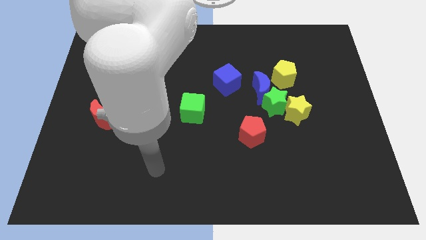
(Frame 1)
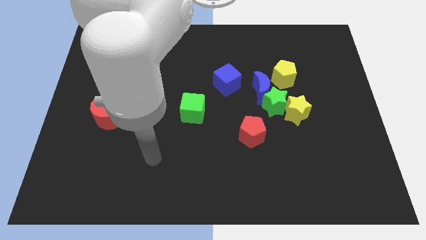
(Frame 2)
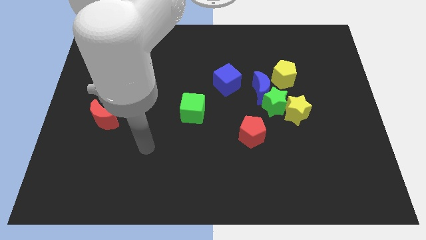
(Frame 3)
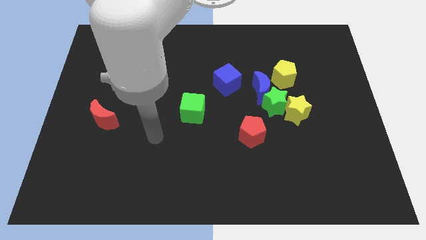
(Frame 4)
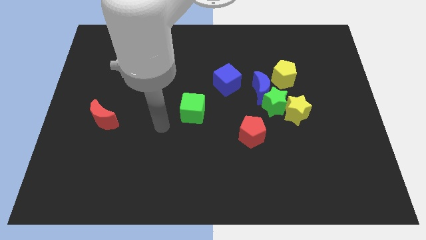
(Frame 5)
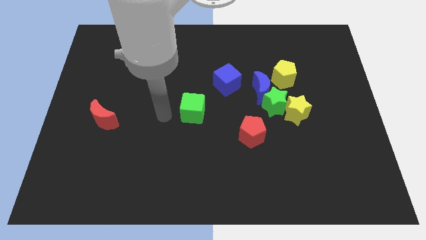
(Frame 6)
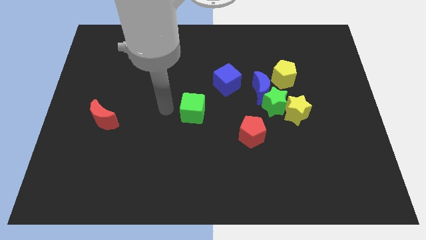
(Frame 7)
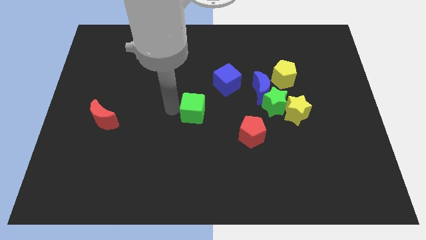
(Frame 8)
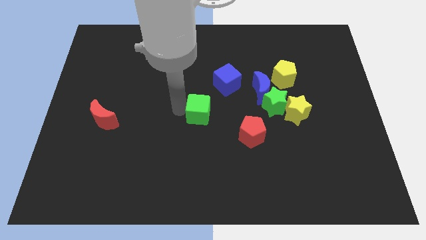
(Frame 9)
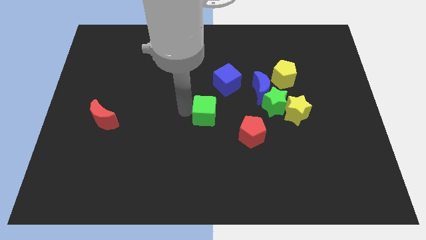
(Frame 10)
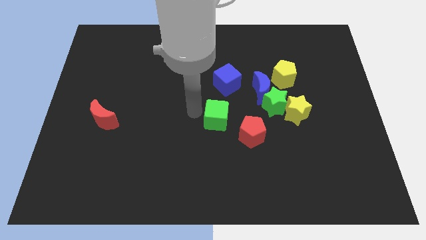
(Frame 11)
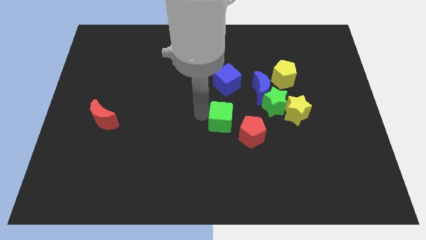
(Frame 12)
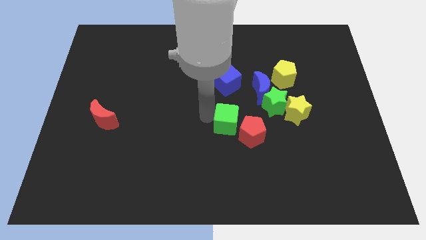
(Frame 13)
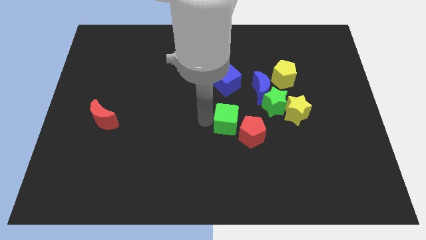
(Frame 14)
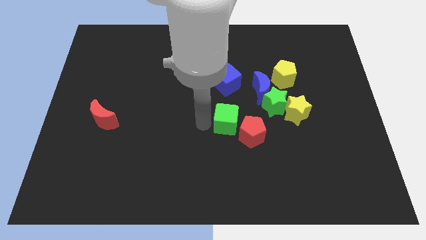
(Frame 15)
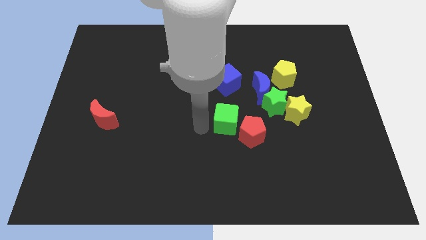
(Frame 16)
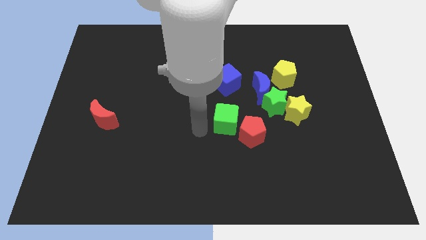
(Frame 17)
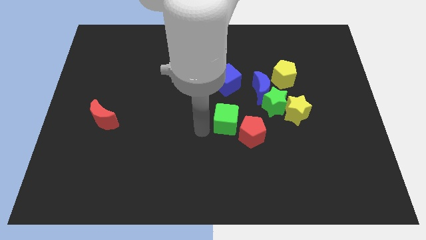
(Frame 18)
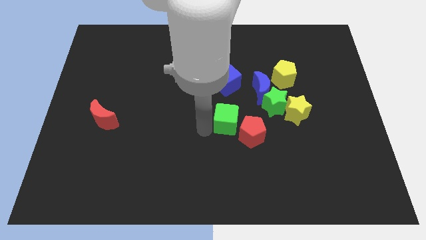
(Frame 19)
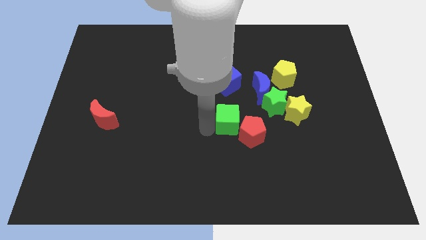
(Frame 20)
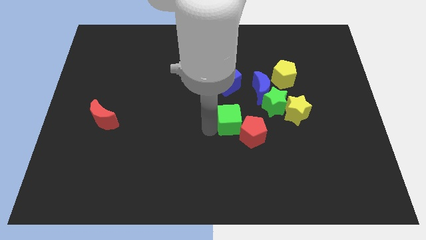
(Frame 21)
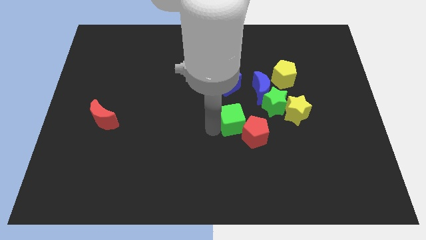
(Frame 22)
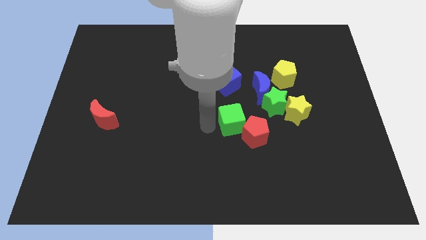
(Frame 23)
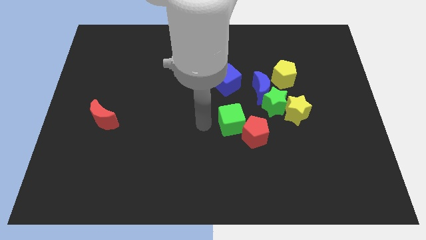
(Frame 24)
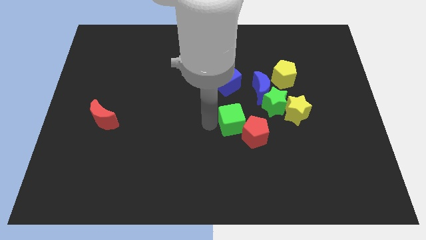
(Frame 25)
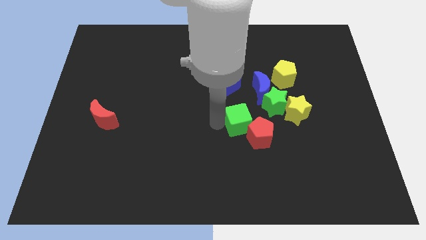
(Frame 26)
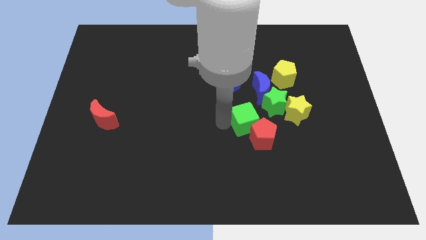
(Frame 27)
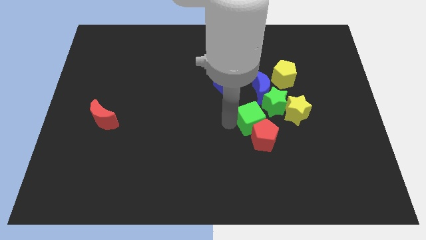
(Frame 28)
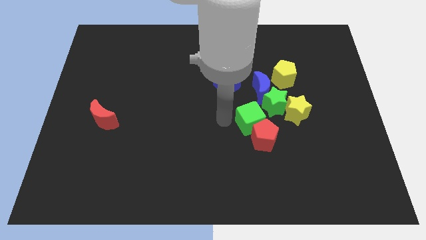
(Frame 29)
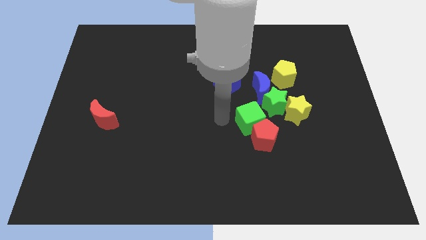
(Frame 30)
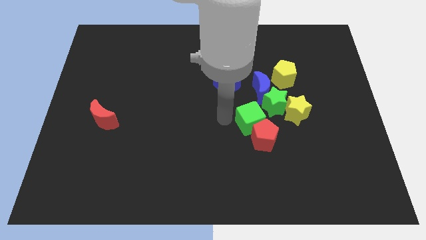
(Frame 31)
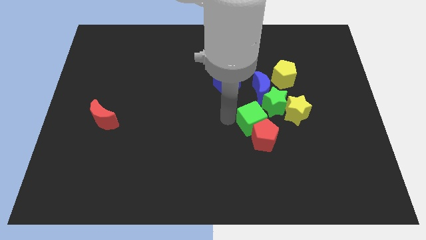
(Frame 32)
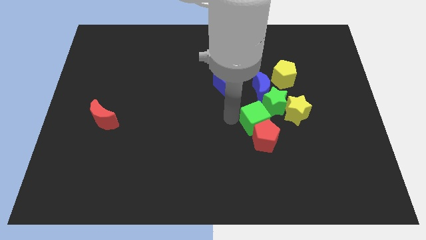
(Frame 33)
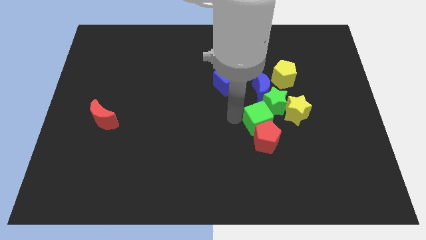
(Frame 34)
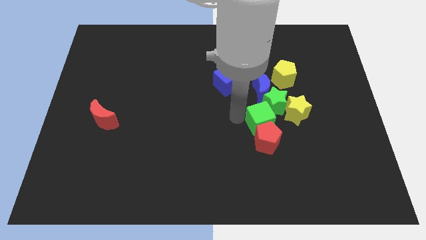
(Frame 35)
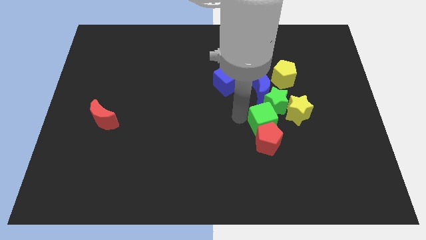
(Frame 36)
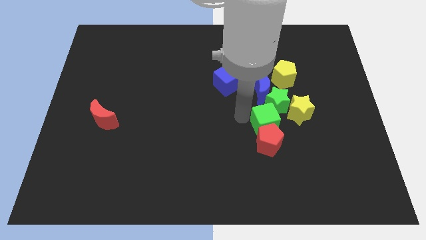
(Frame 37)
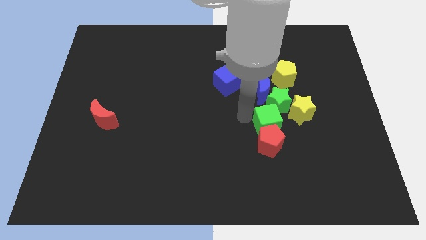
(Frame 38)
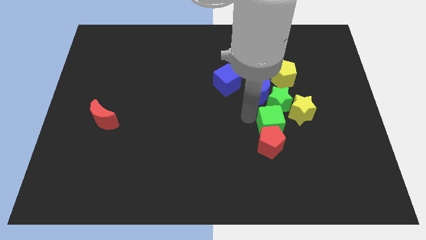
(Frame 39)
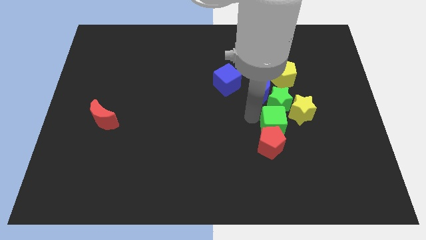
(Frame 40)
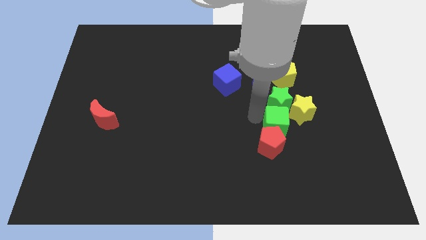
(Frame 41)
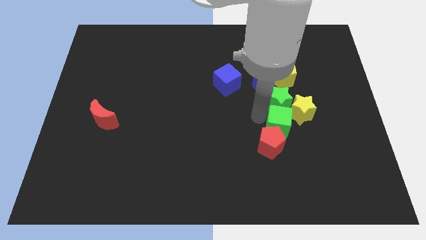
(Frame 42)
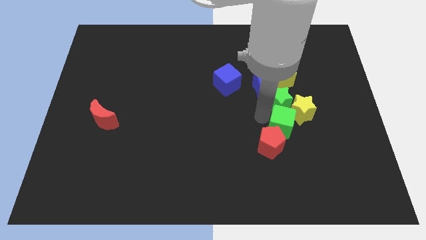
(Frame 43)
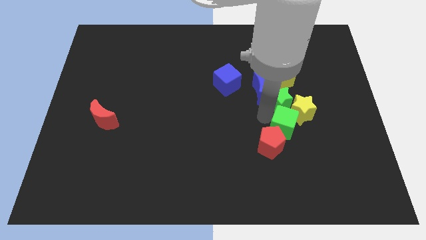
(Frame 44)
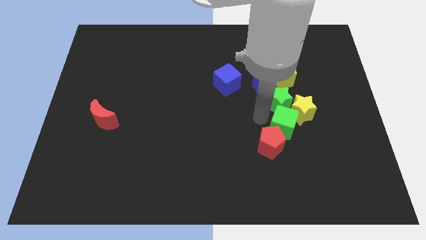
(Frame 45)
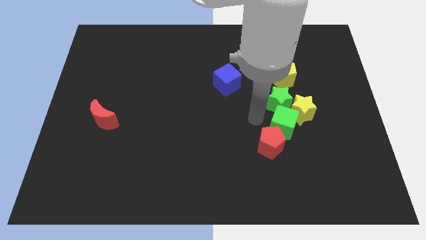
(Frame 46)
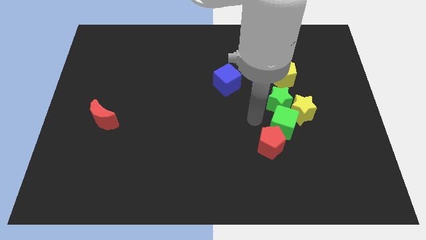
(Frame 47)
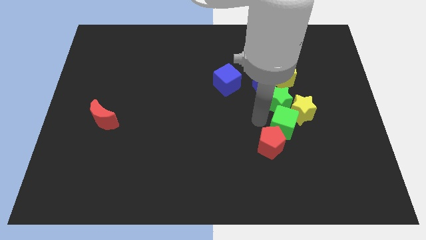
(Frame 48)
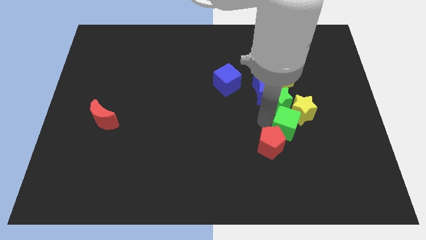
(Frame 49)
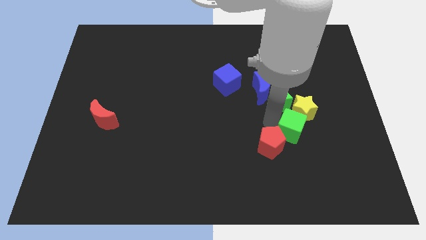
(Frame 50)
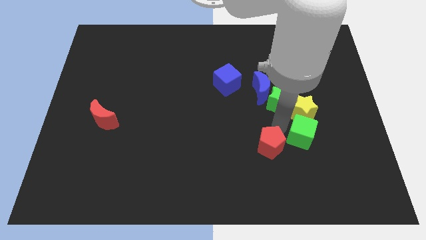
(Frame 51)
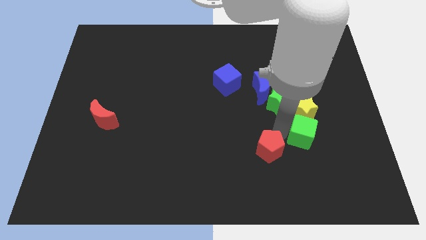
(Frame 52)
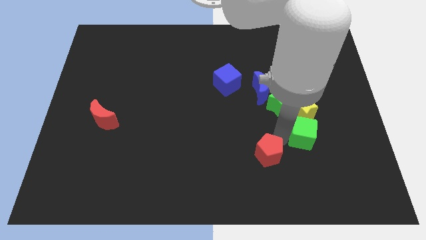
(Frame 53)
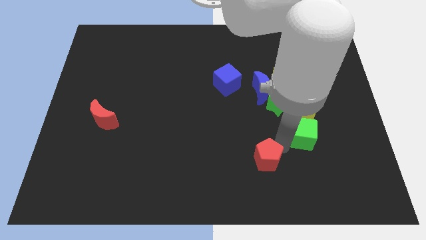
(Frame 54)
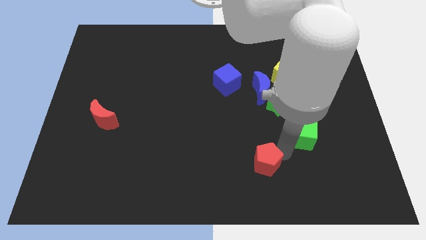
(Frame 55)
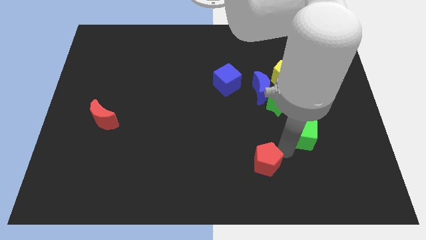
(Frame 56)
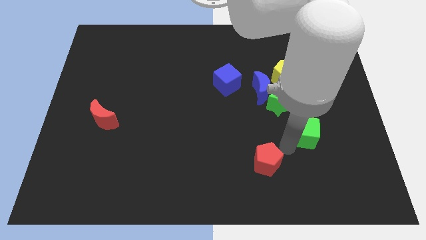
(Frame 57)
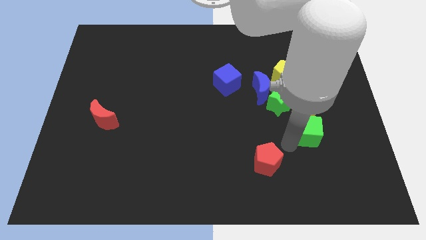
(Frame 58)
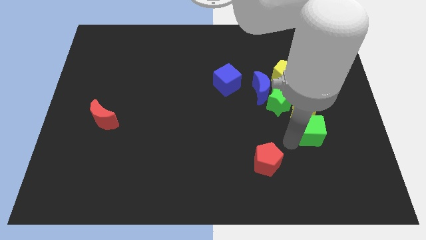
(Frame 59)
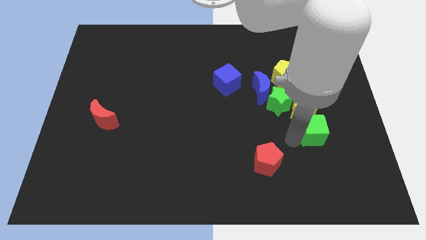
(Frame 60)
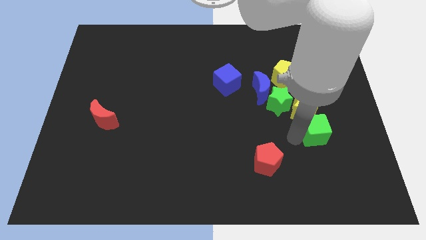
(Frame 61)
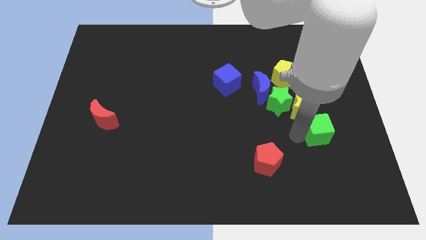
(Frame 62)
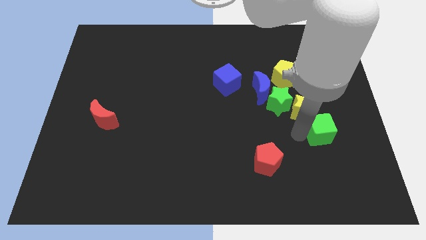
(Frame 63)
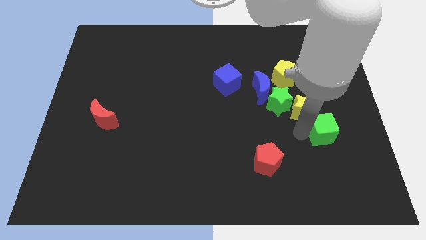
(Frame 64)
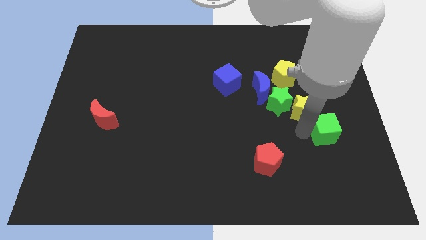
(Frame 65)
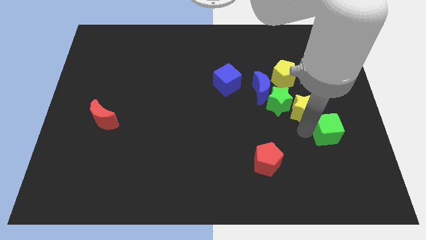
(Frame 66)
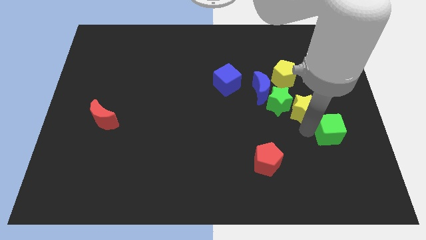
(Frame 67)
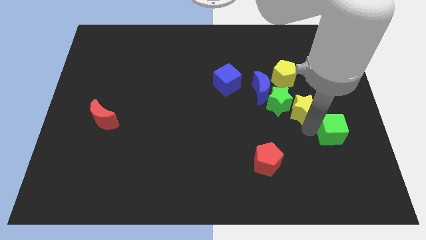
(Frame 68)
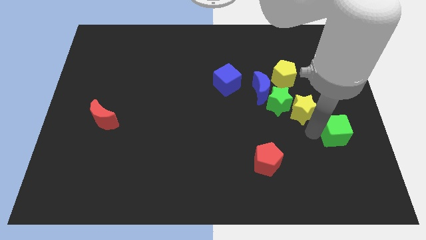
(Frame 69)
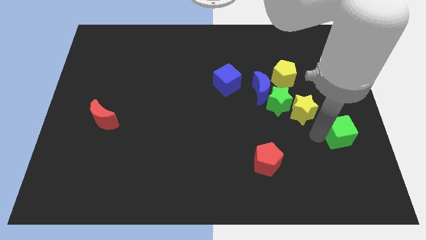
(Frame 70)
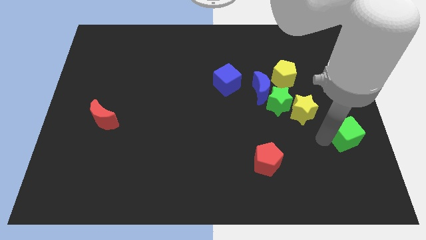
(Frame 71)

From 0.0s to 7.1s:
move the green cube to the right side of the board

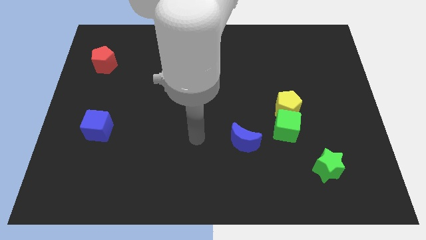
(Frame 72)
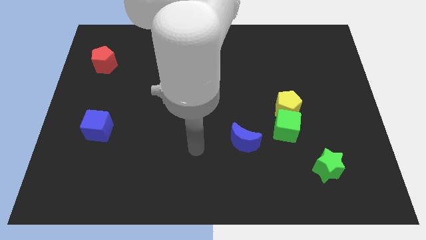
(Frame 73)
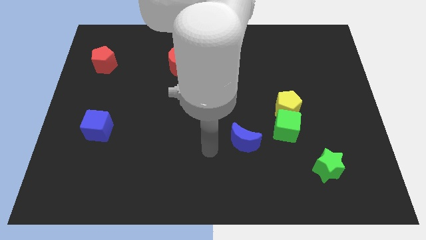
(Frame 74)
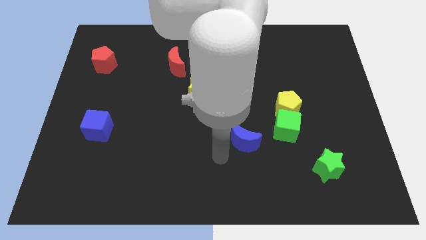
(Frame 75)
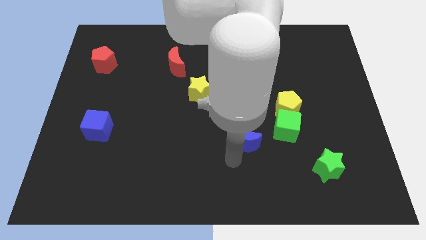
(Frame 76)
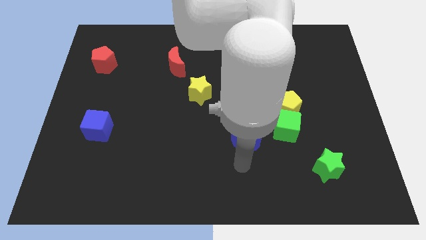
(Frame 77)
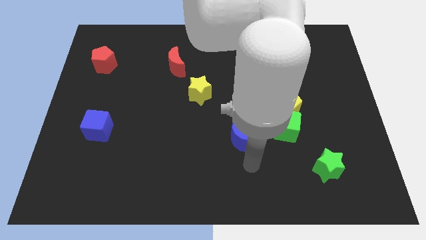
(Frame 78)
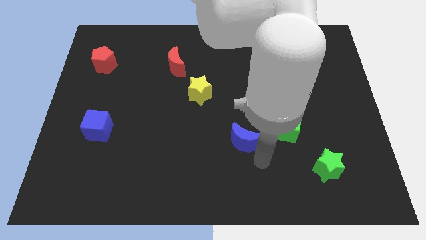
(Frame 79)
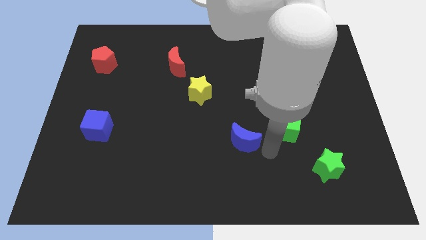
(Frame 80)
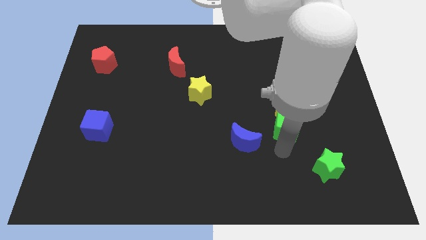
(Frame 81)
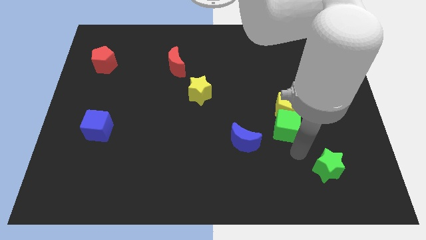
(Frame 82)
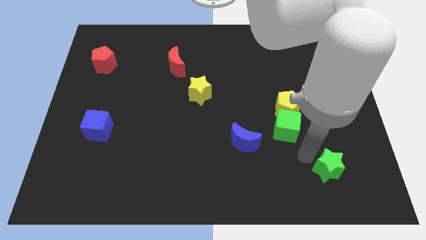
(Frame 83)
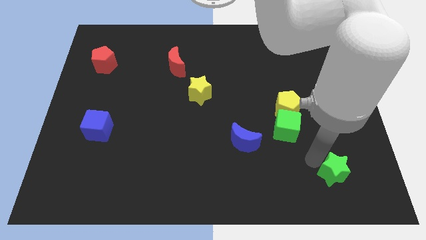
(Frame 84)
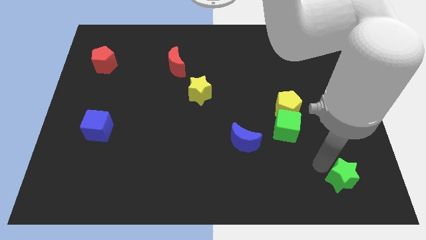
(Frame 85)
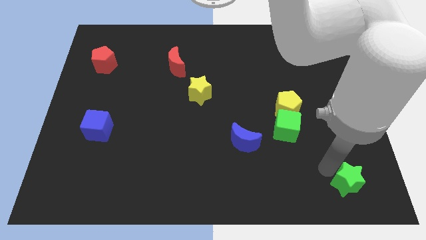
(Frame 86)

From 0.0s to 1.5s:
move the green star to the lower right corner
